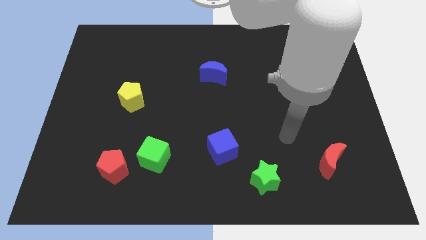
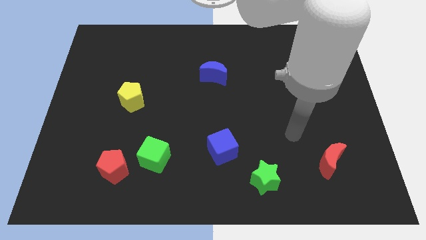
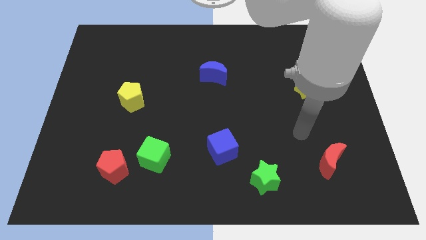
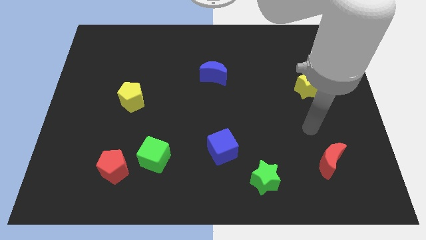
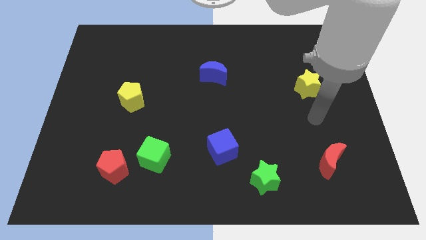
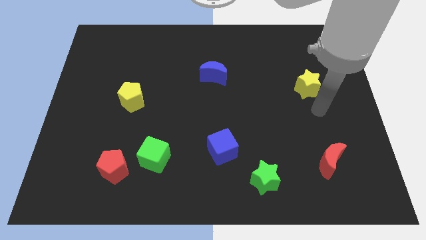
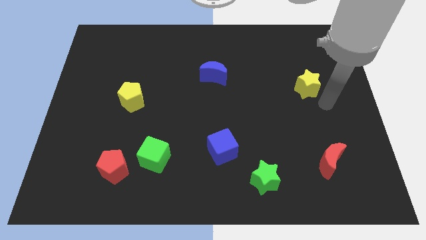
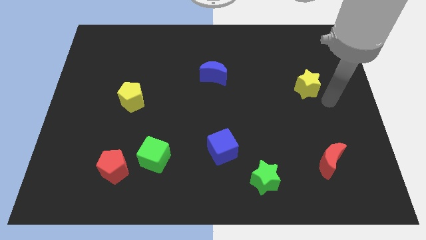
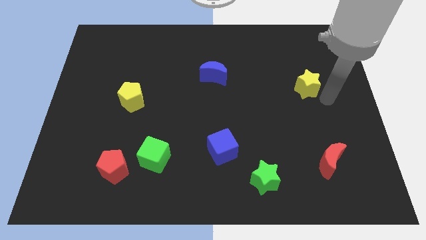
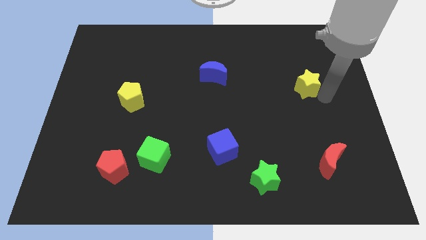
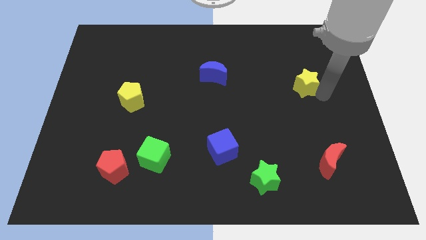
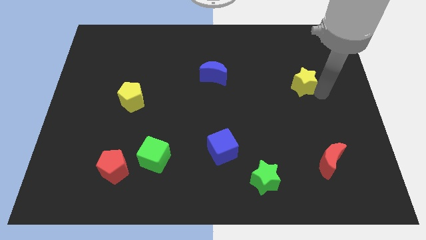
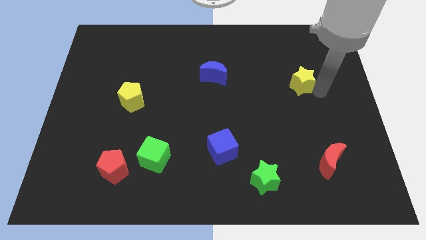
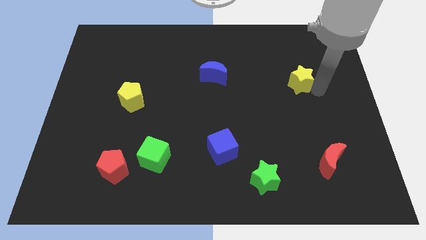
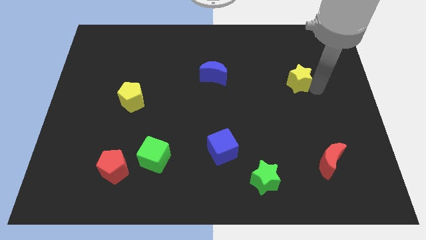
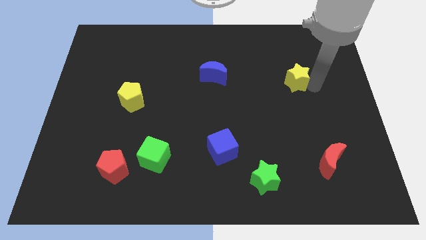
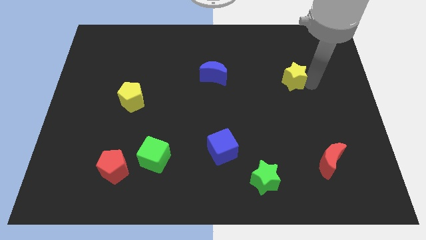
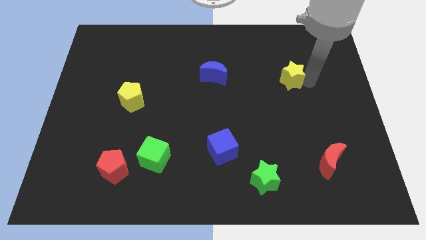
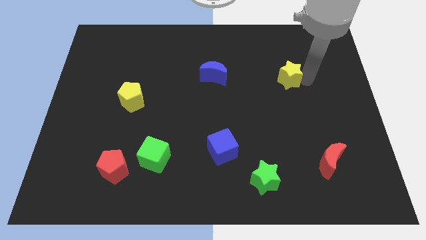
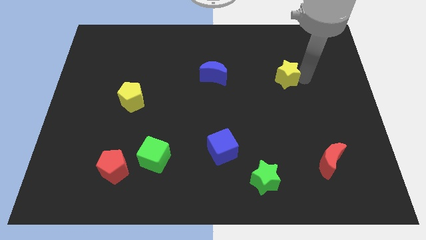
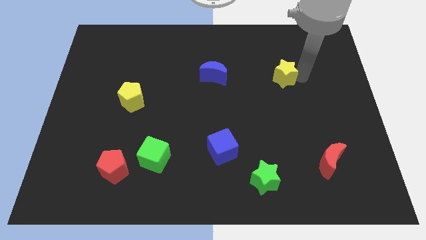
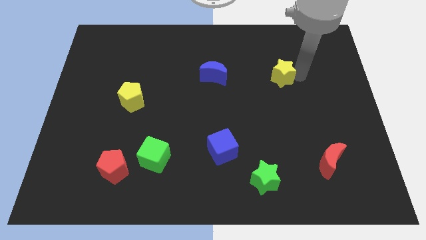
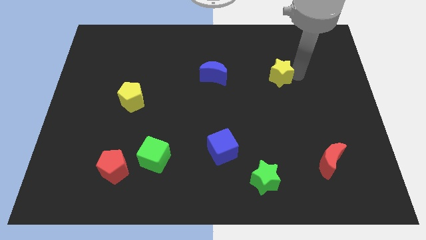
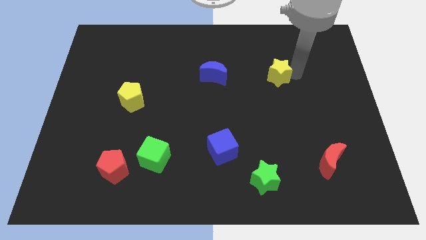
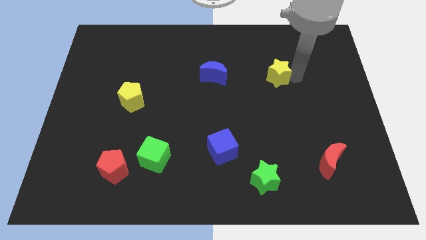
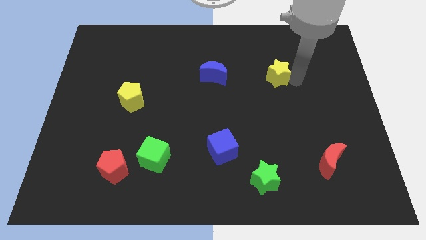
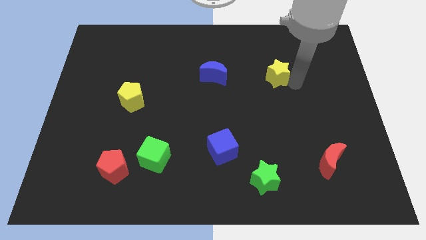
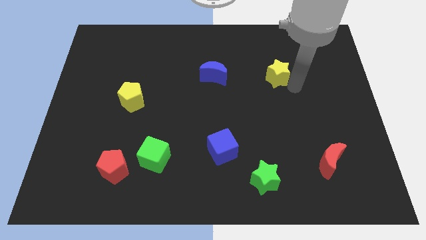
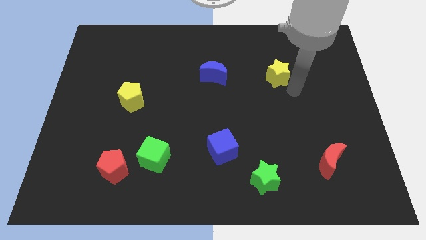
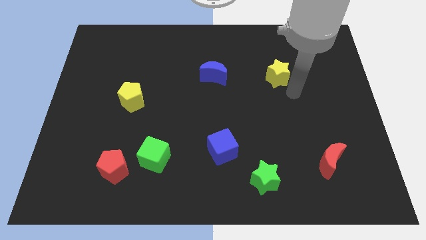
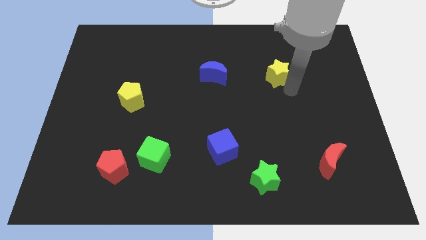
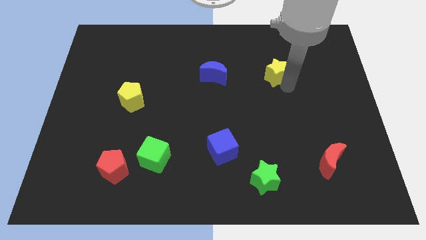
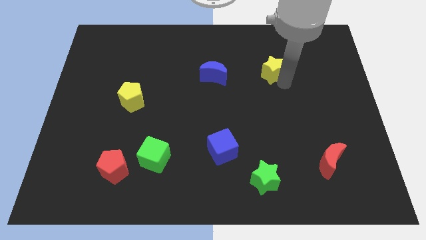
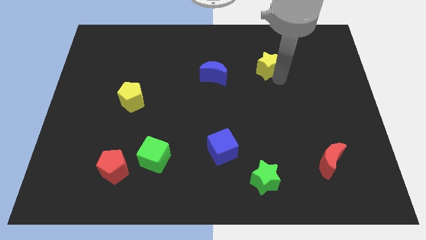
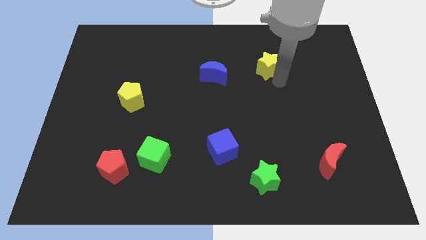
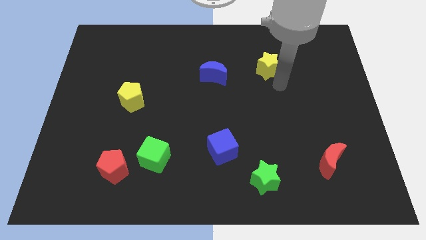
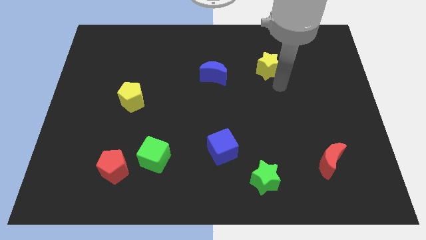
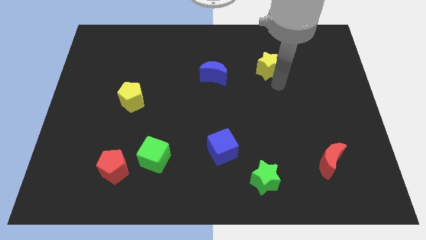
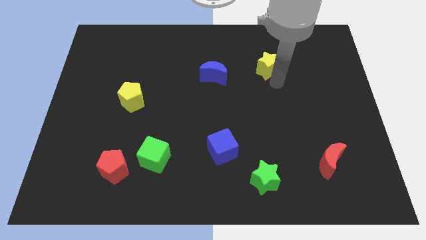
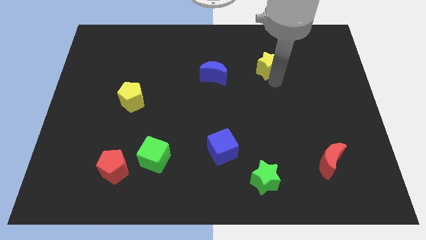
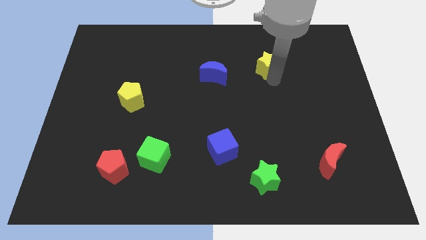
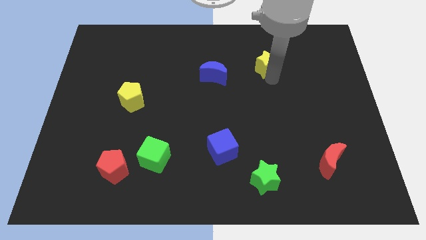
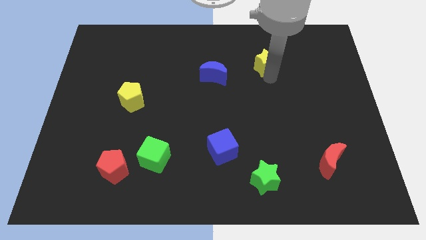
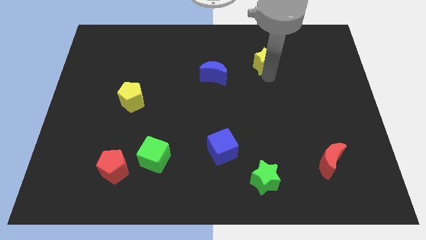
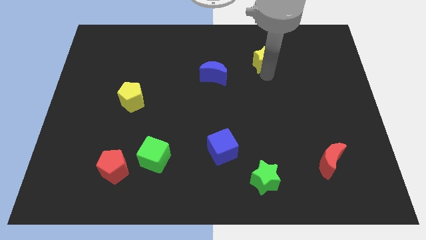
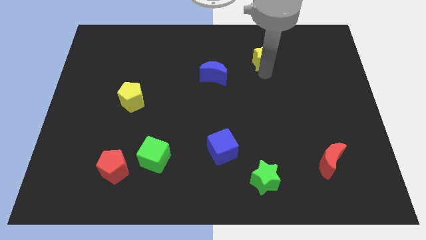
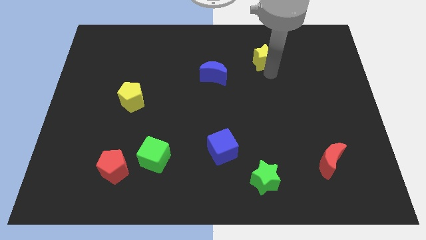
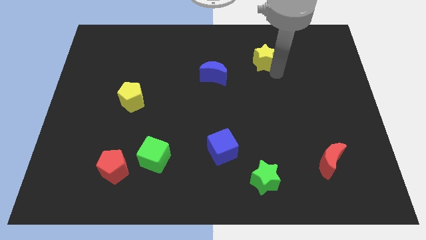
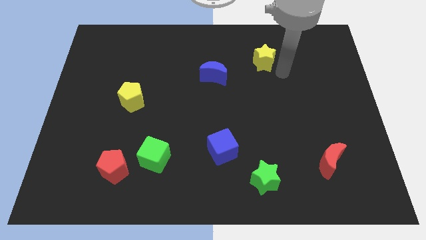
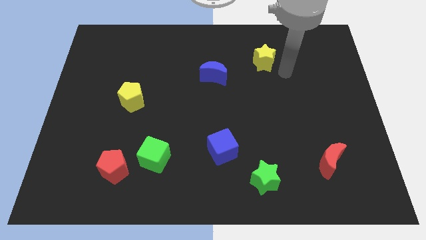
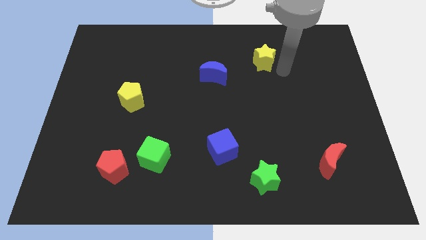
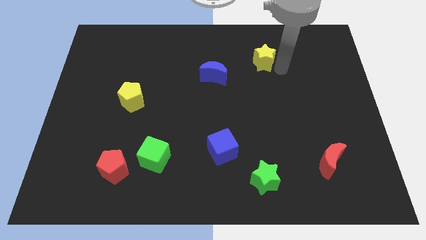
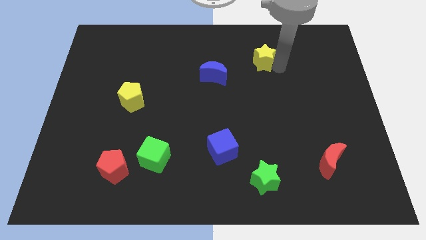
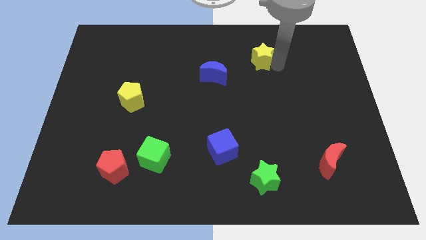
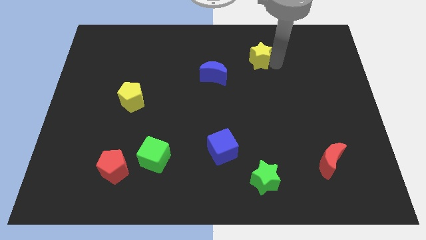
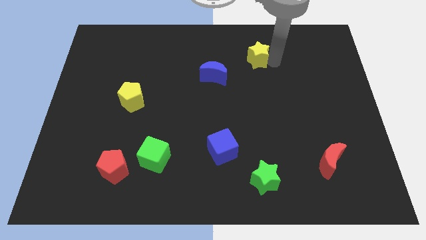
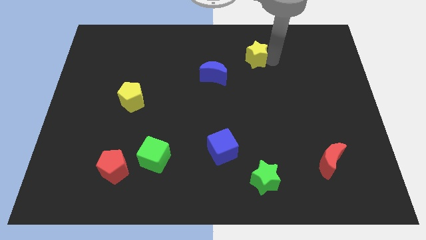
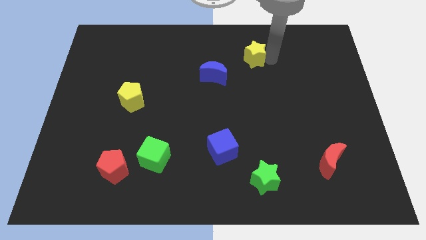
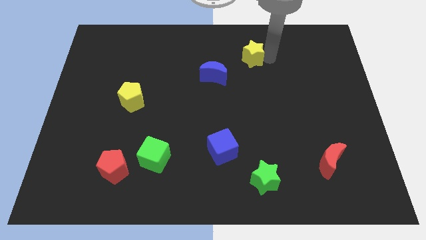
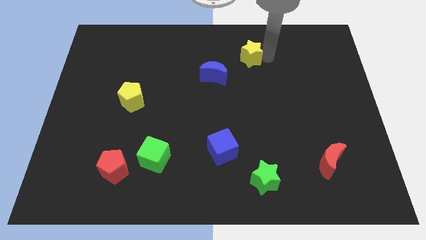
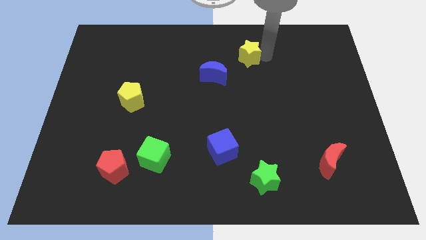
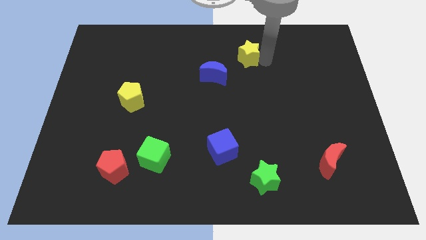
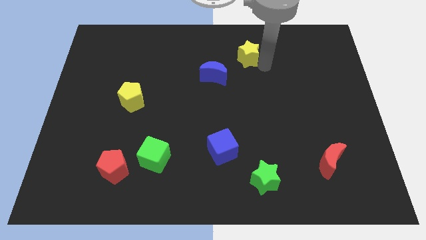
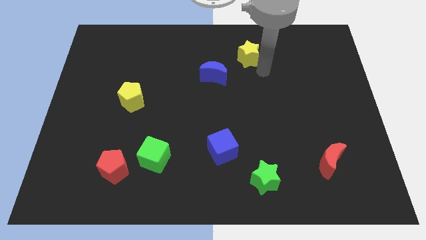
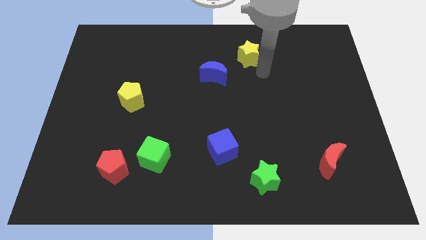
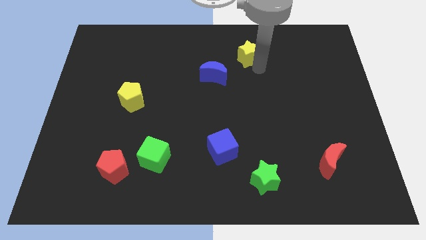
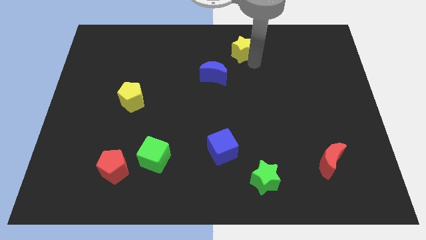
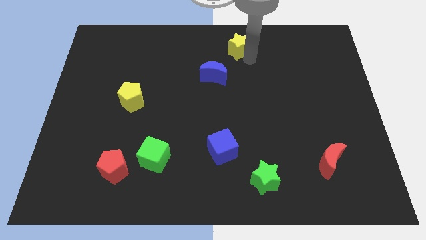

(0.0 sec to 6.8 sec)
move the yellow star to the towards your base
